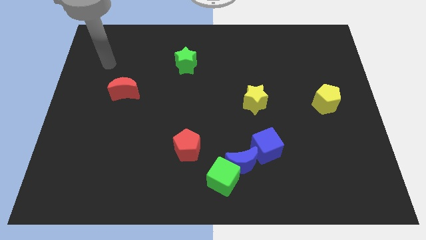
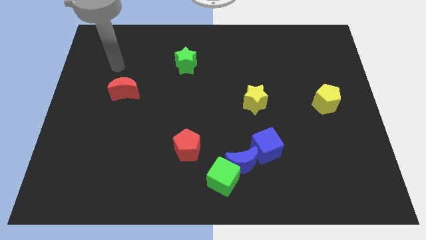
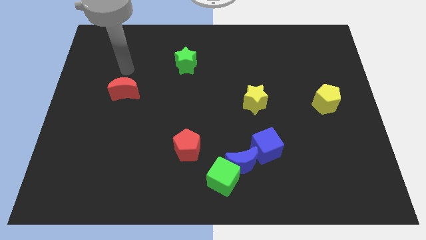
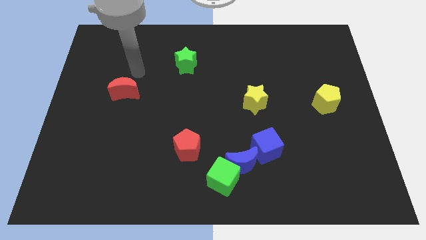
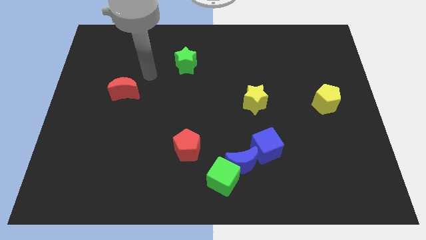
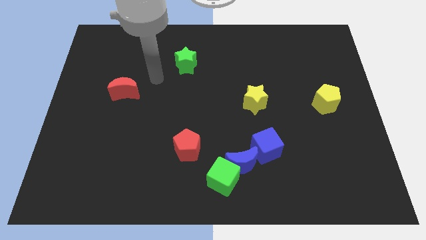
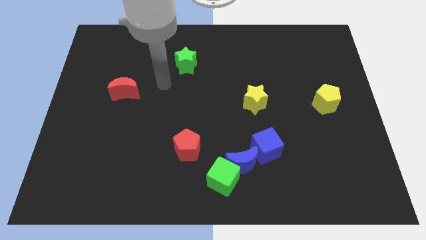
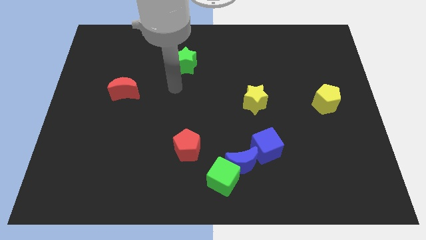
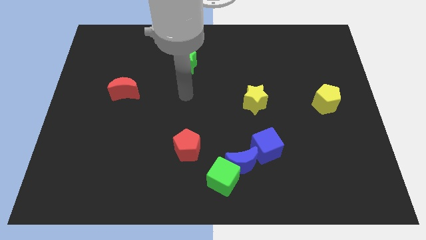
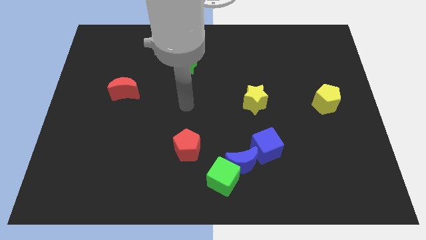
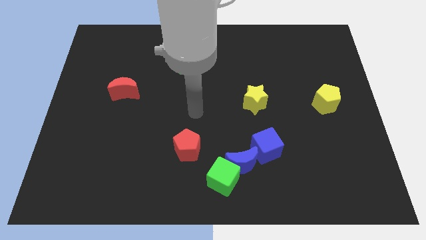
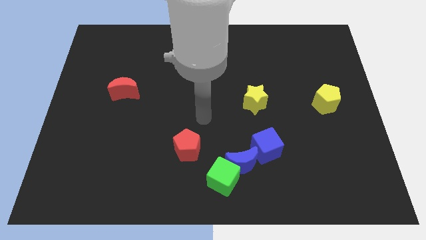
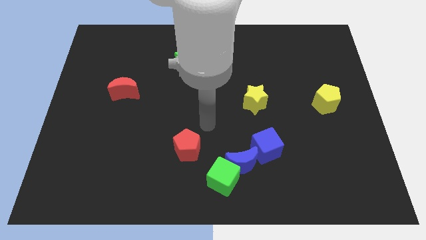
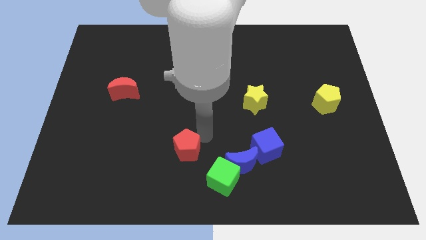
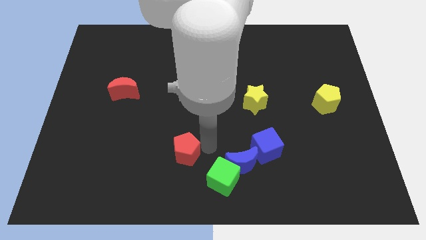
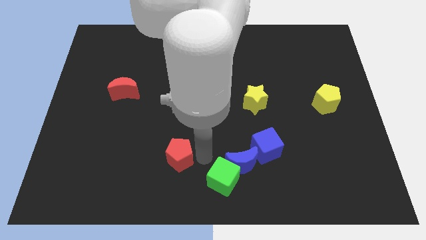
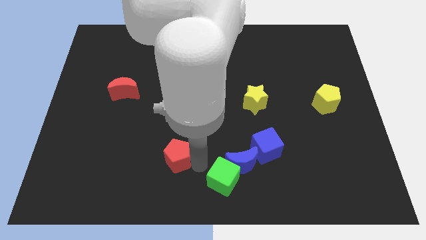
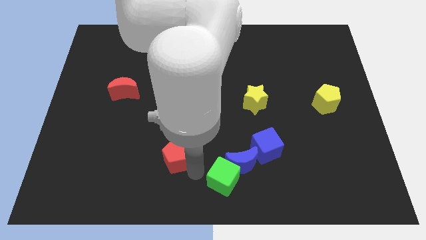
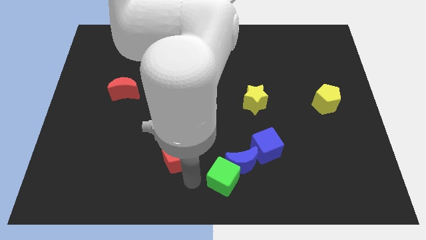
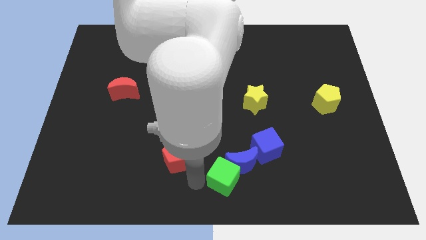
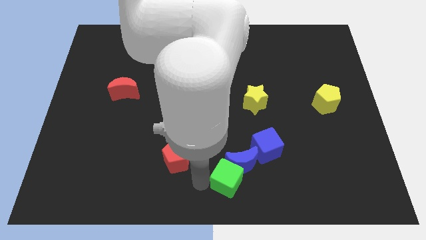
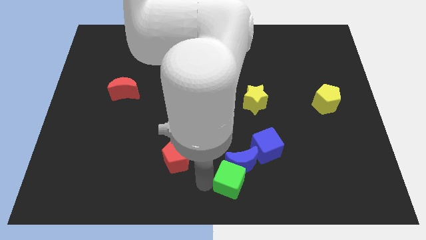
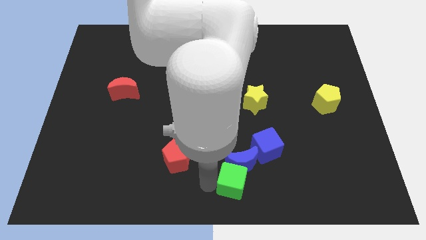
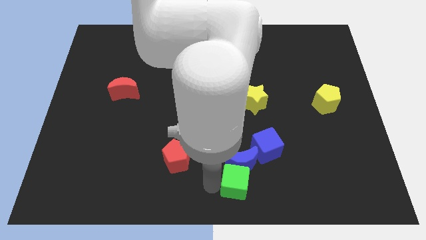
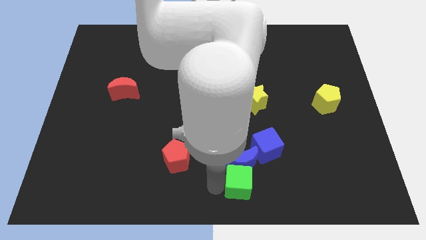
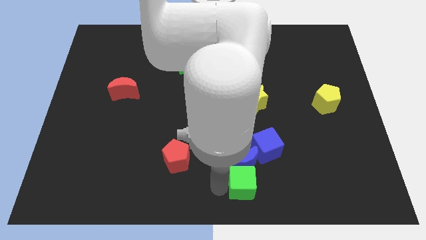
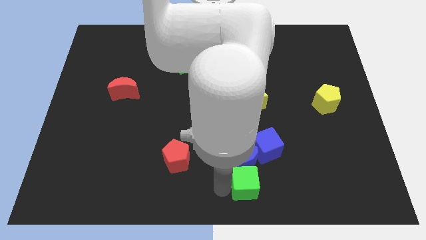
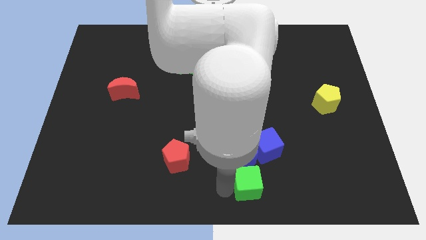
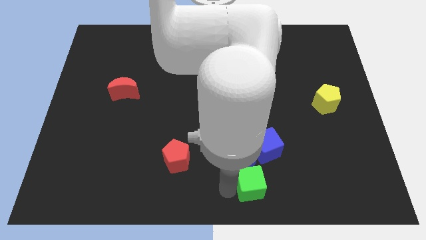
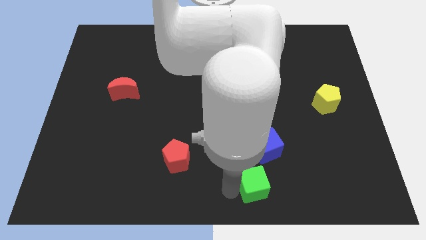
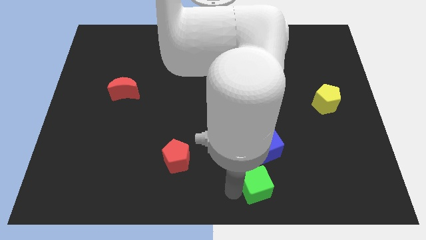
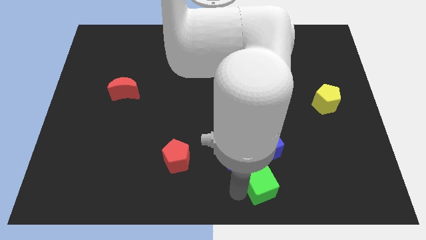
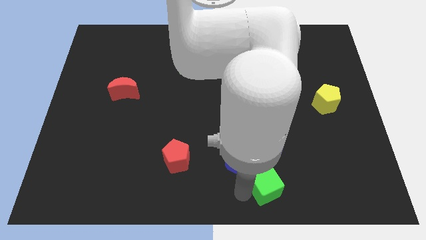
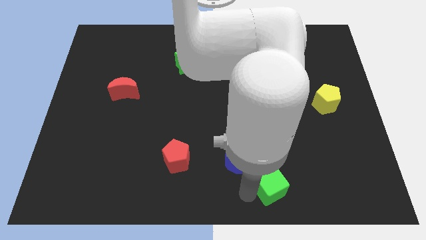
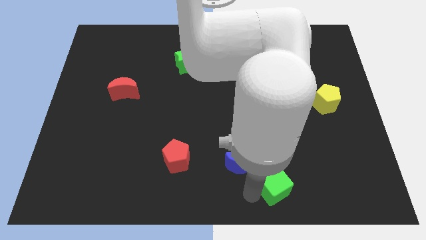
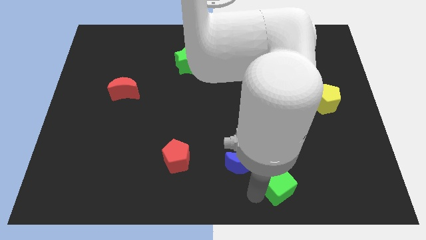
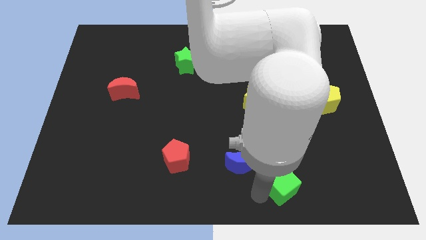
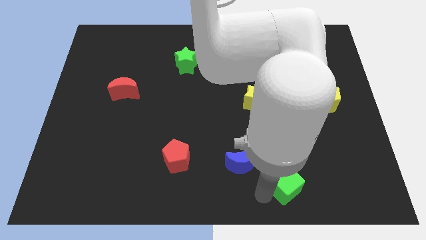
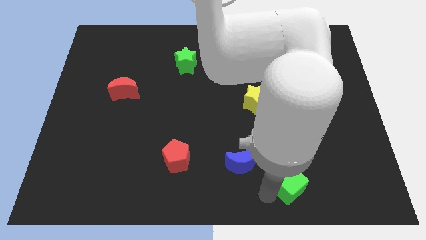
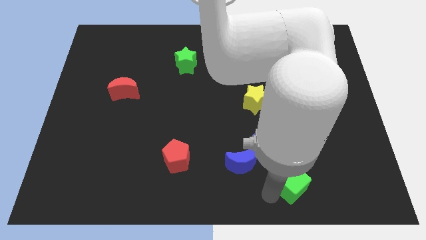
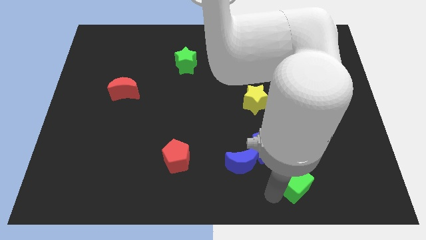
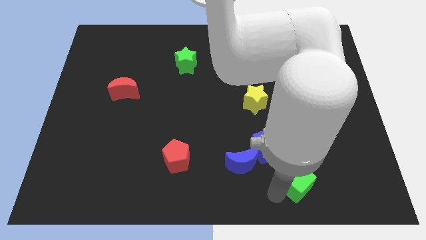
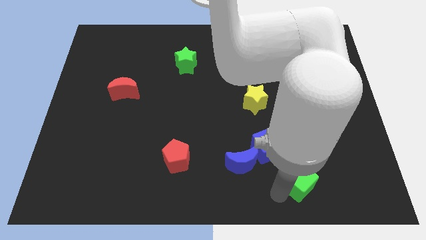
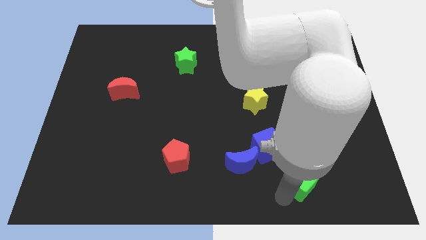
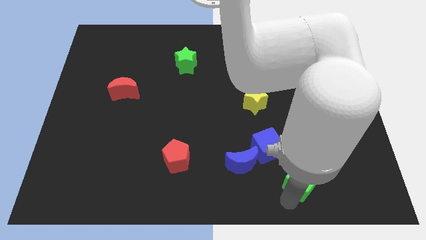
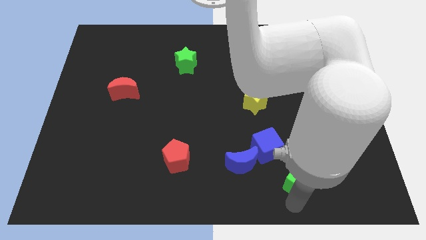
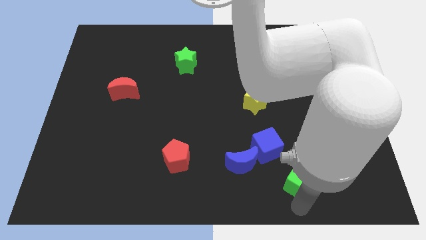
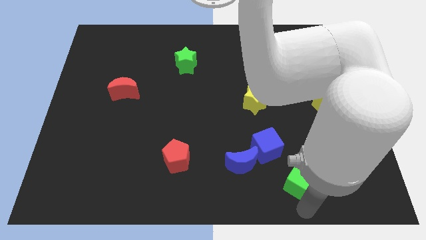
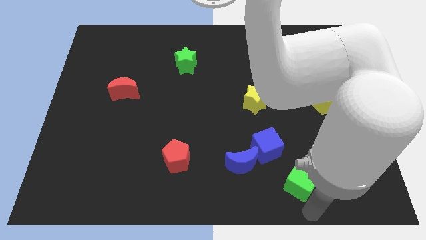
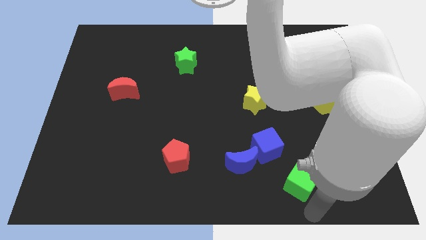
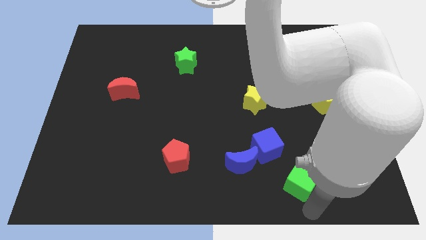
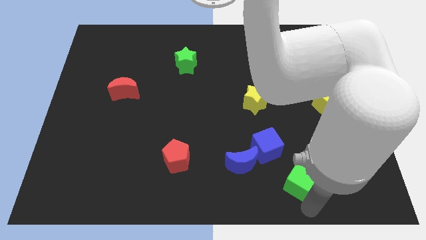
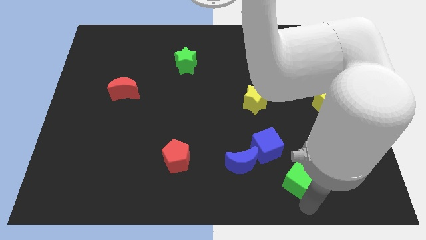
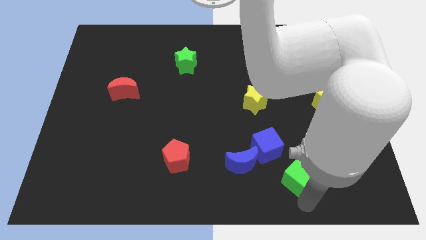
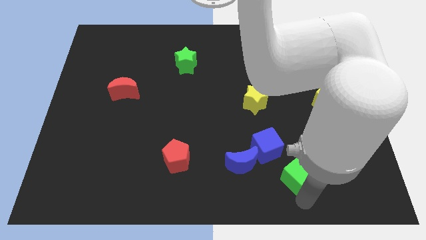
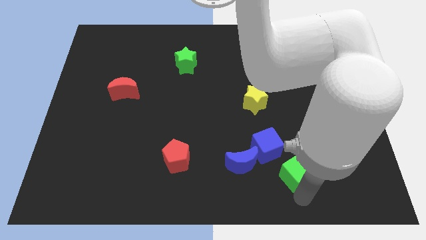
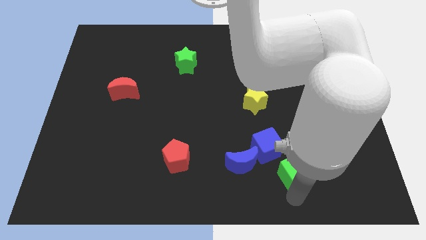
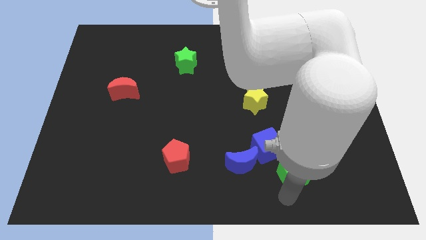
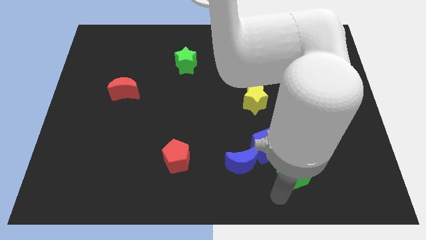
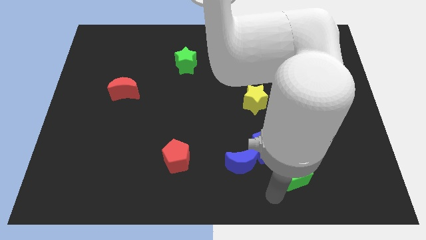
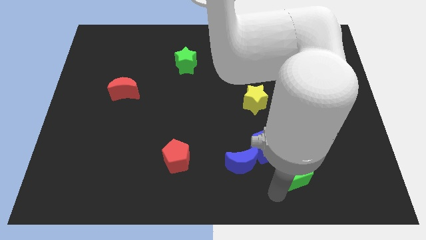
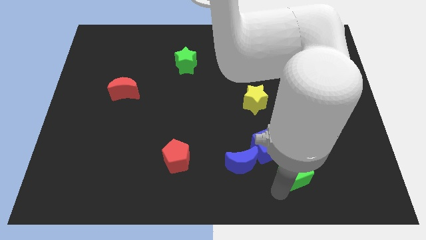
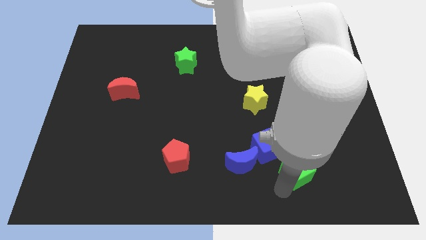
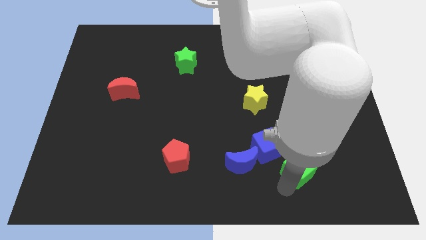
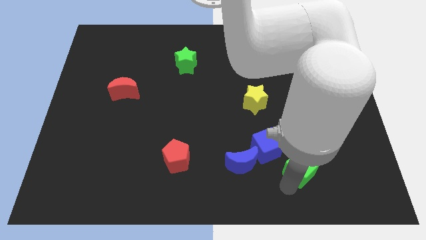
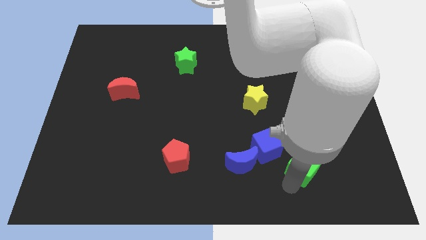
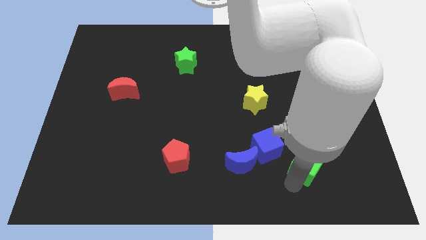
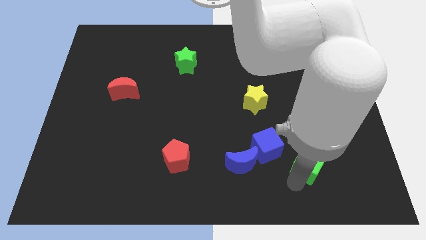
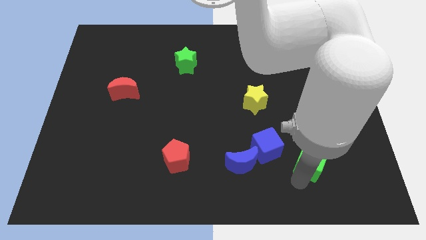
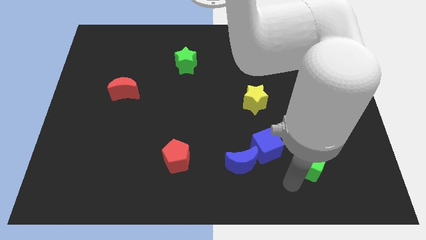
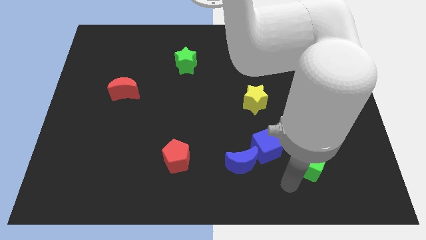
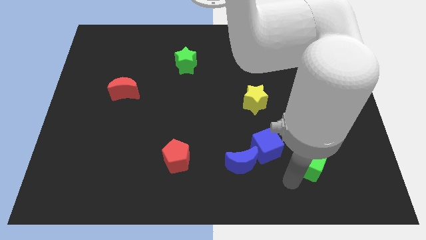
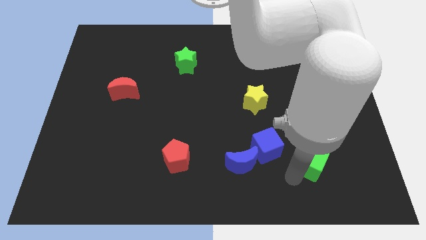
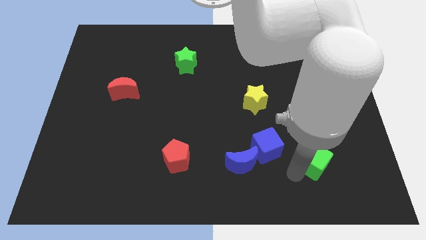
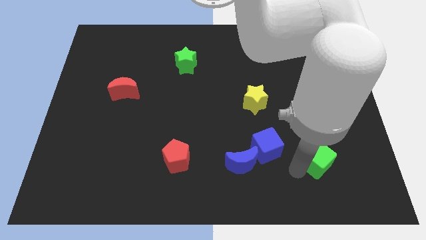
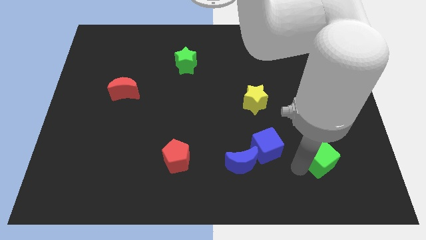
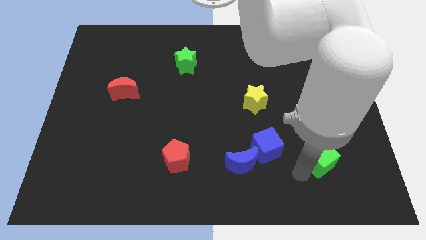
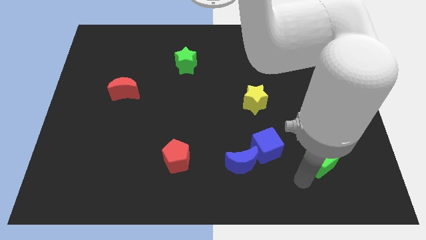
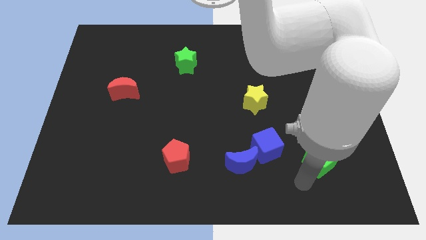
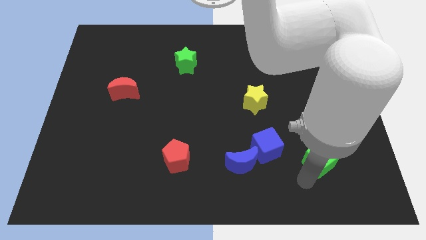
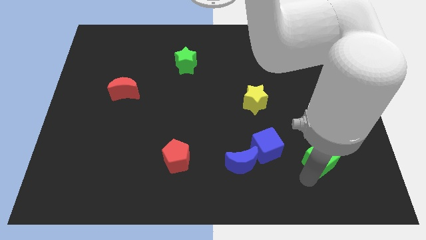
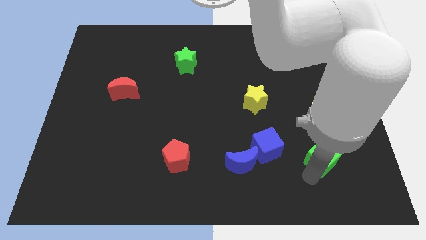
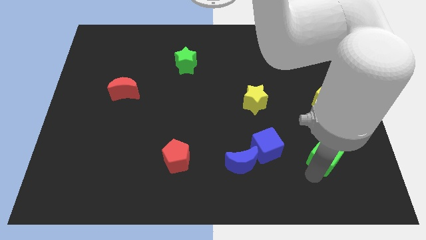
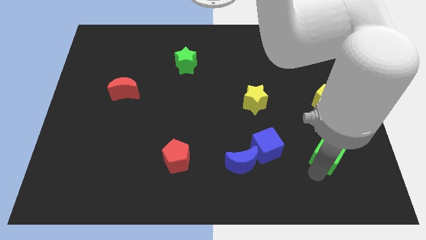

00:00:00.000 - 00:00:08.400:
move the green cube to the bottom of the yellow pentagon
